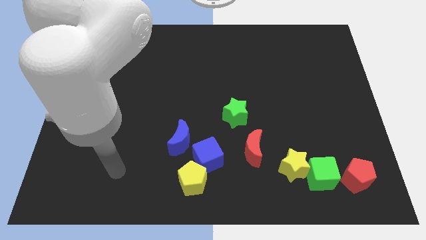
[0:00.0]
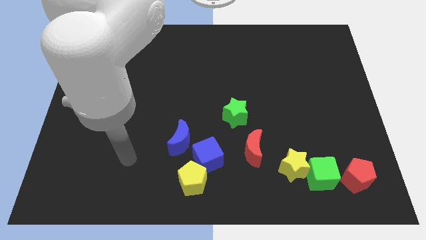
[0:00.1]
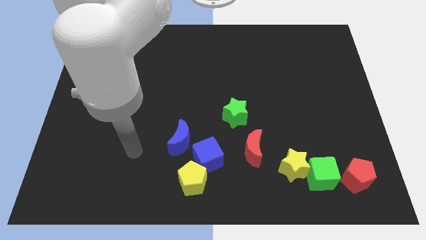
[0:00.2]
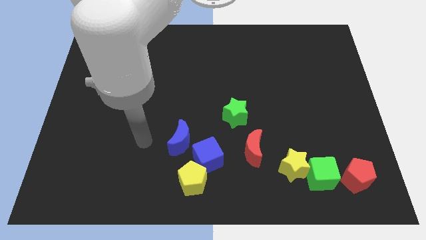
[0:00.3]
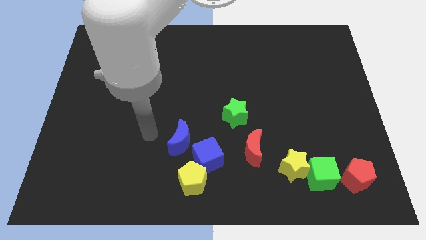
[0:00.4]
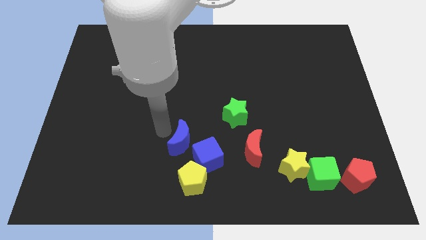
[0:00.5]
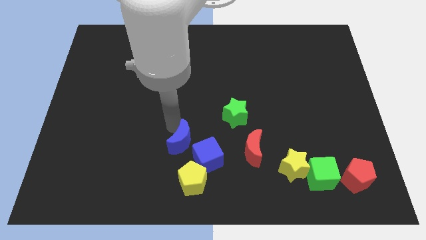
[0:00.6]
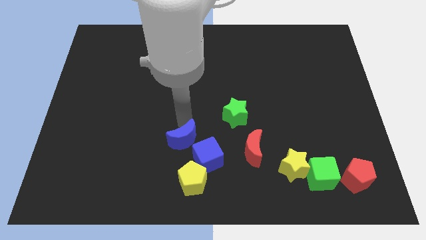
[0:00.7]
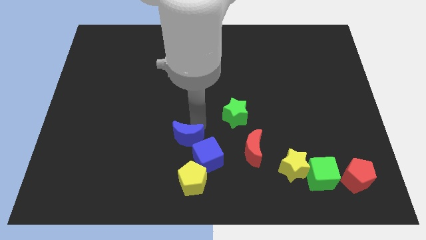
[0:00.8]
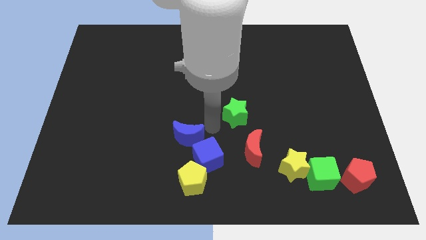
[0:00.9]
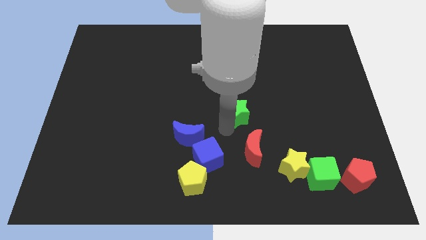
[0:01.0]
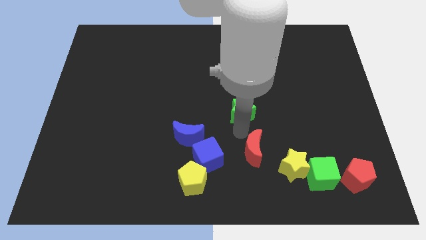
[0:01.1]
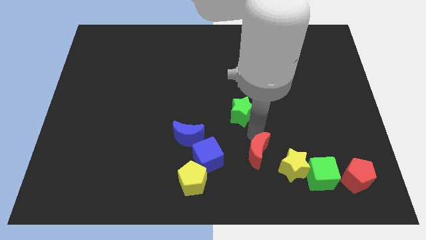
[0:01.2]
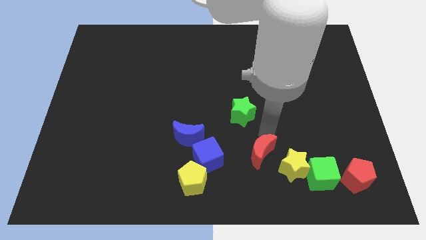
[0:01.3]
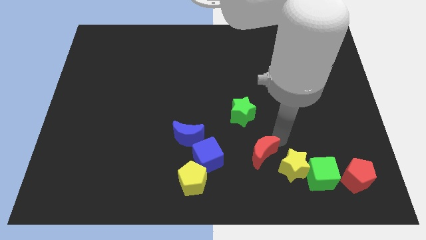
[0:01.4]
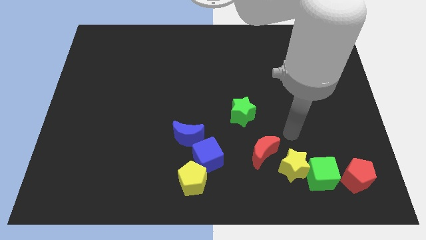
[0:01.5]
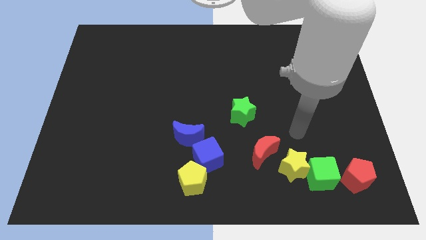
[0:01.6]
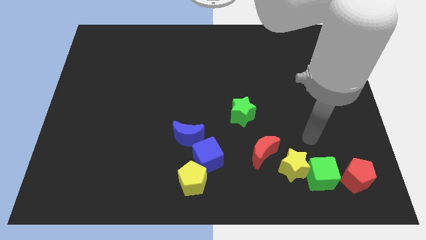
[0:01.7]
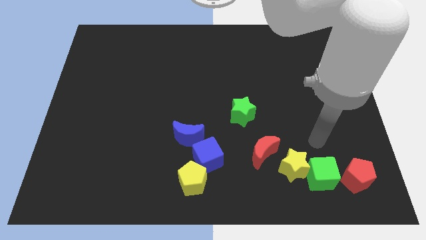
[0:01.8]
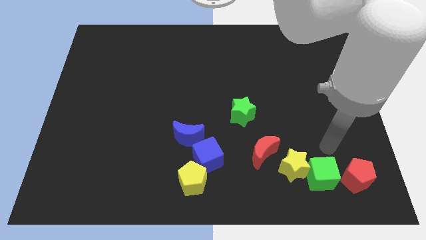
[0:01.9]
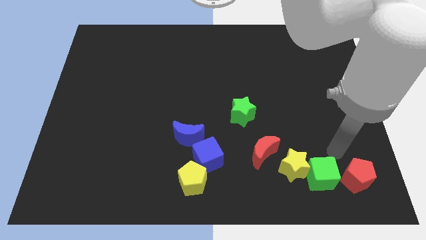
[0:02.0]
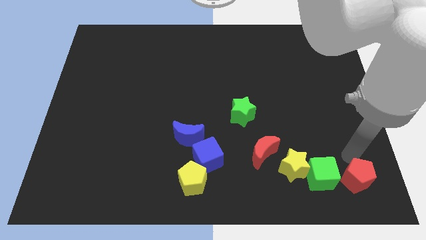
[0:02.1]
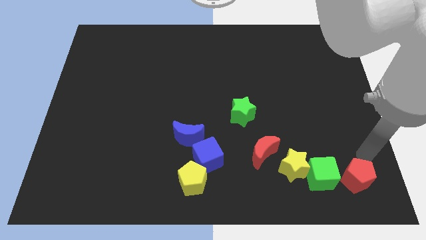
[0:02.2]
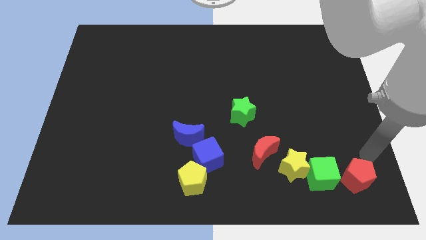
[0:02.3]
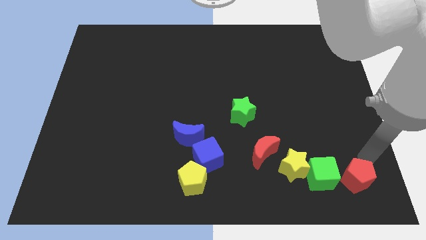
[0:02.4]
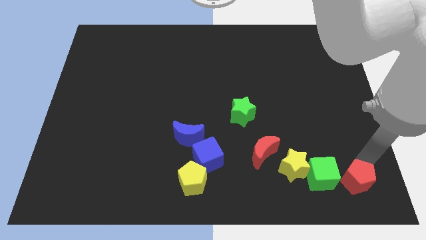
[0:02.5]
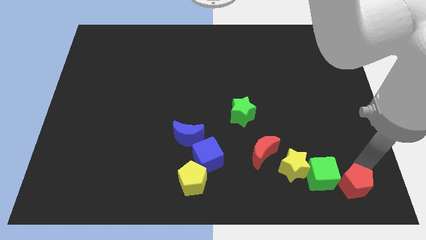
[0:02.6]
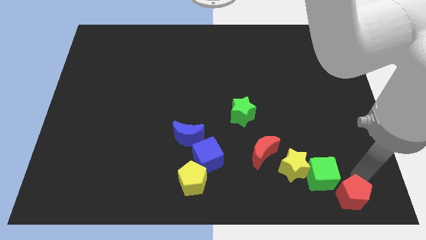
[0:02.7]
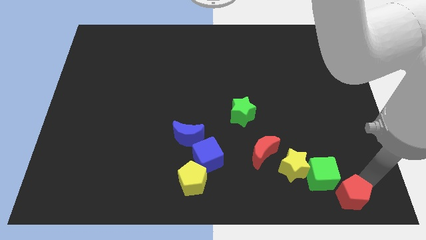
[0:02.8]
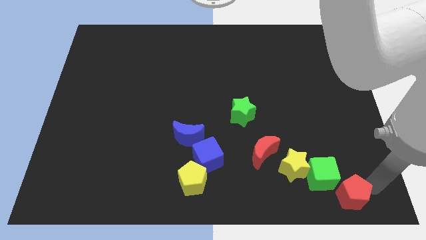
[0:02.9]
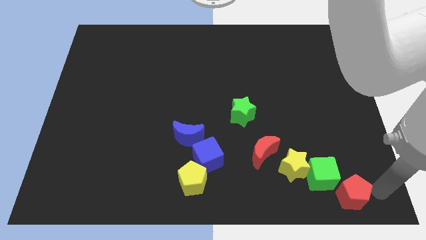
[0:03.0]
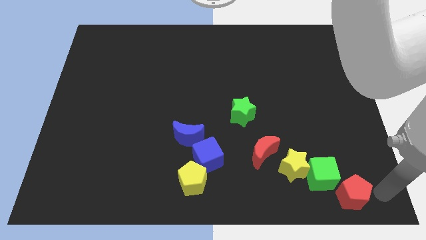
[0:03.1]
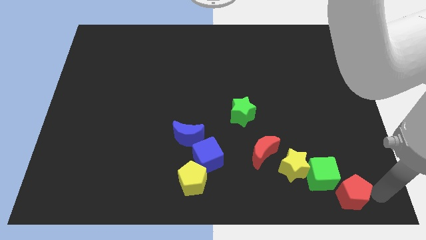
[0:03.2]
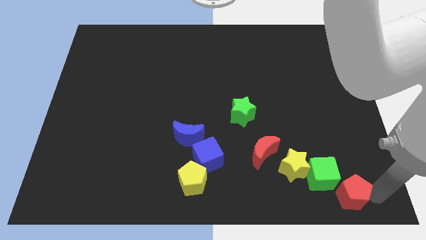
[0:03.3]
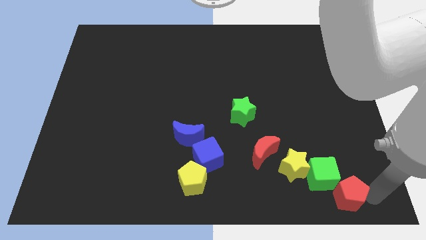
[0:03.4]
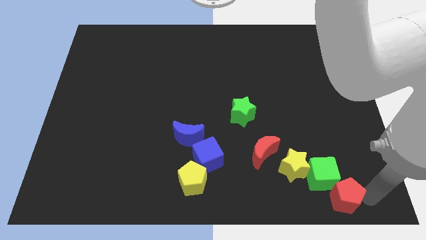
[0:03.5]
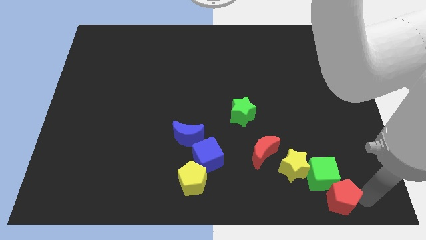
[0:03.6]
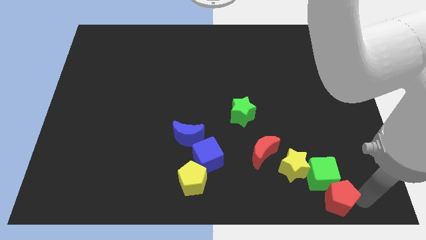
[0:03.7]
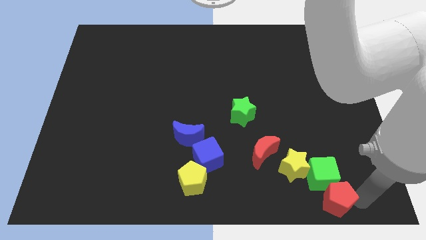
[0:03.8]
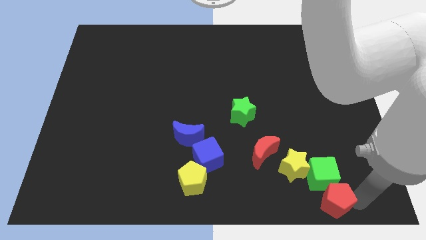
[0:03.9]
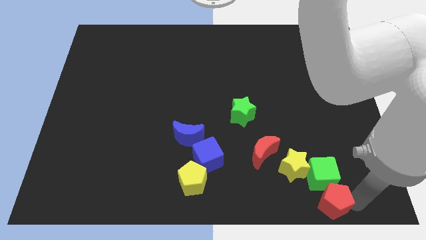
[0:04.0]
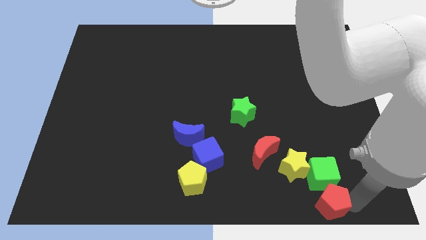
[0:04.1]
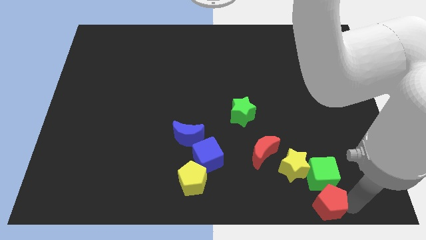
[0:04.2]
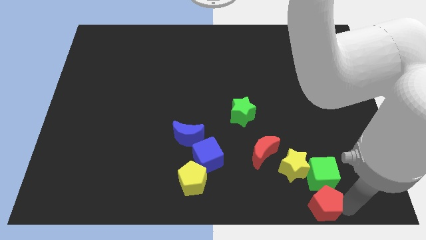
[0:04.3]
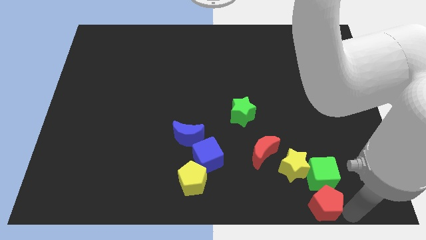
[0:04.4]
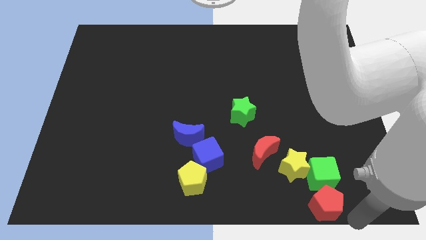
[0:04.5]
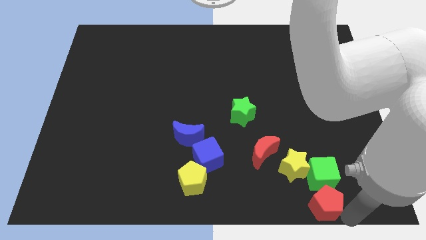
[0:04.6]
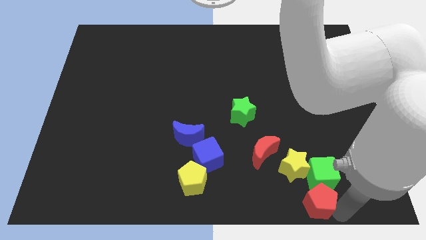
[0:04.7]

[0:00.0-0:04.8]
slide the red pentagon left somewhat

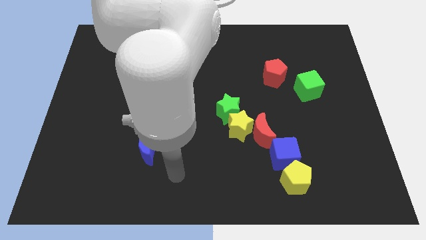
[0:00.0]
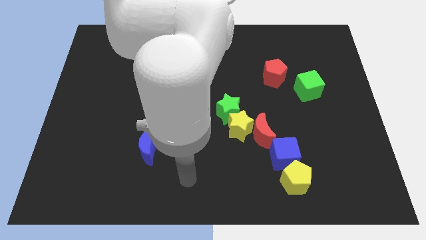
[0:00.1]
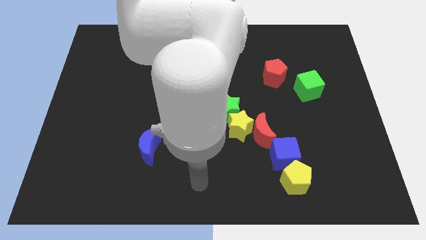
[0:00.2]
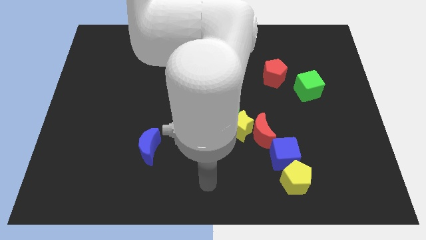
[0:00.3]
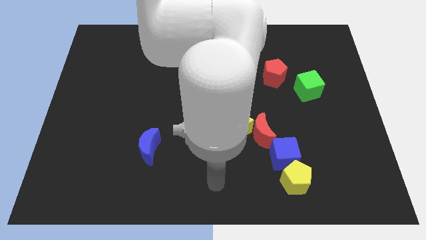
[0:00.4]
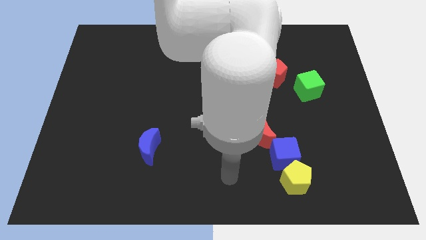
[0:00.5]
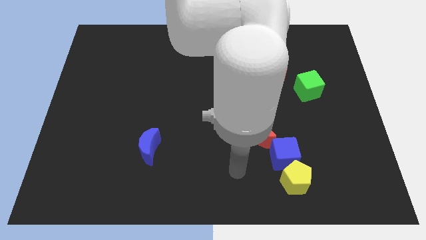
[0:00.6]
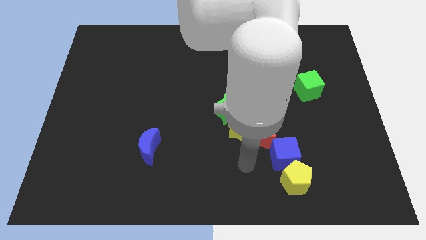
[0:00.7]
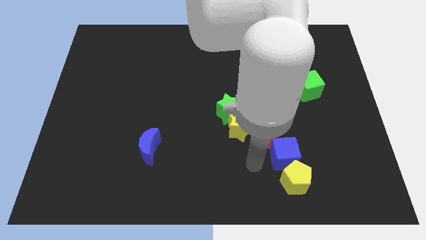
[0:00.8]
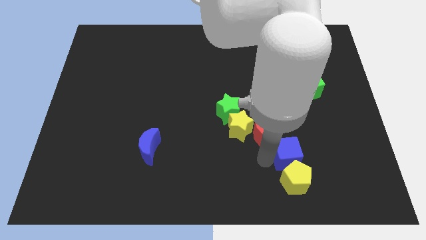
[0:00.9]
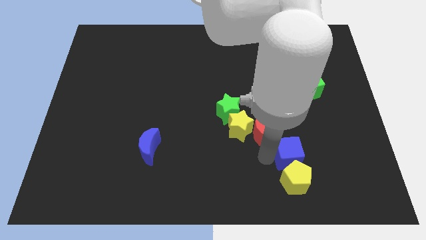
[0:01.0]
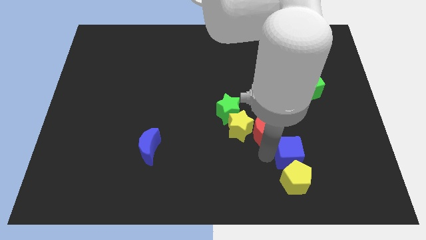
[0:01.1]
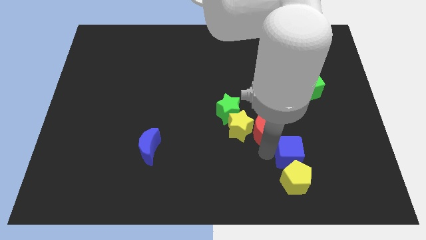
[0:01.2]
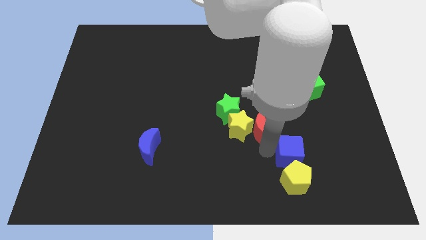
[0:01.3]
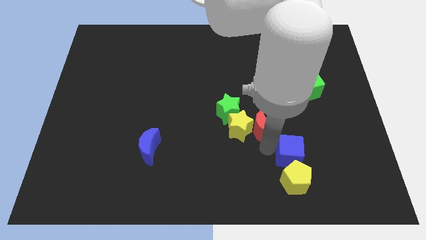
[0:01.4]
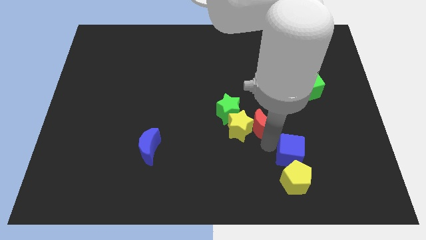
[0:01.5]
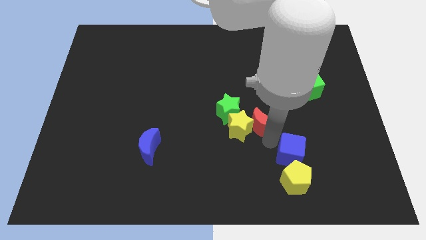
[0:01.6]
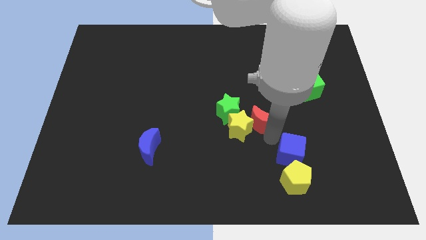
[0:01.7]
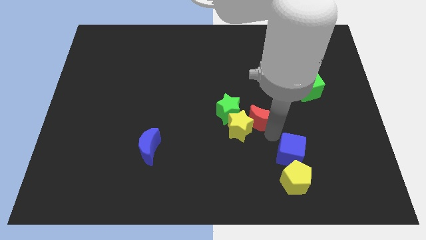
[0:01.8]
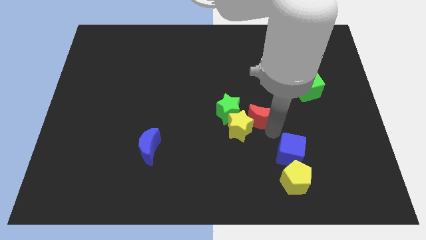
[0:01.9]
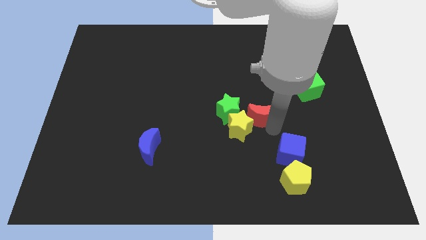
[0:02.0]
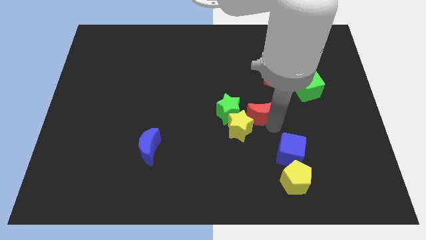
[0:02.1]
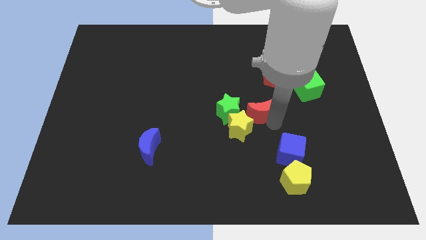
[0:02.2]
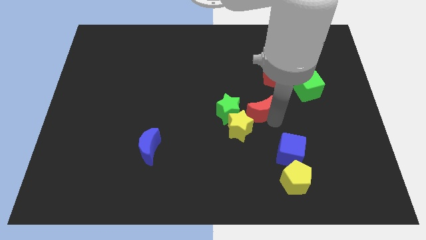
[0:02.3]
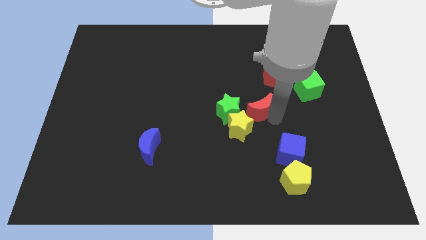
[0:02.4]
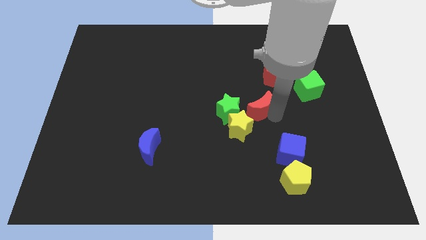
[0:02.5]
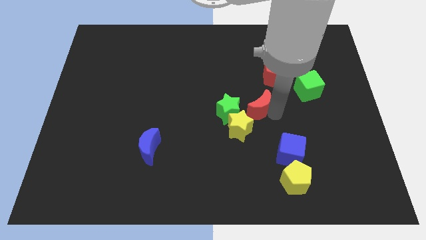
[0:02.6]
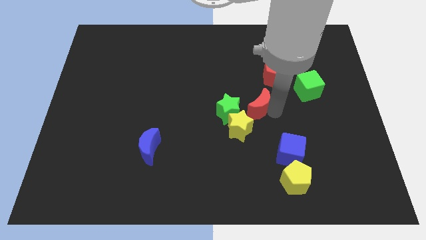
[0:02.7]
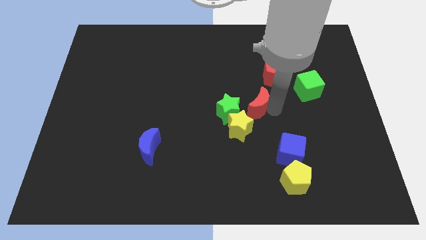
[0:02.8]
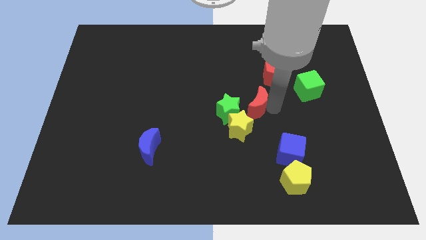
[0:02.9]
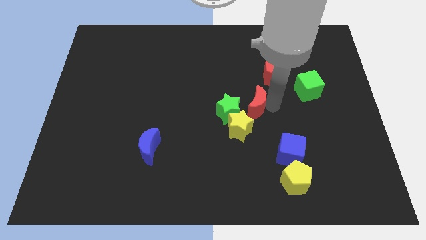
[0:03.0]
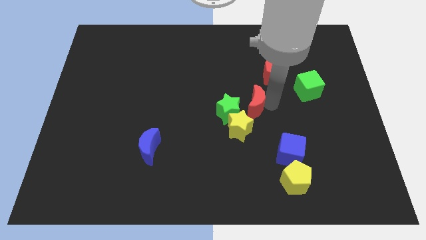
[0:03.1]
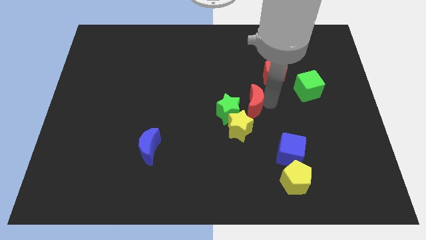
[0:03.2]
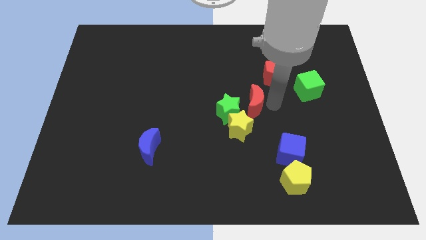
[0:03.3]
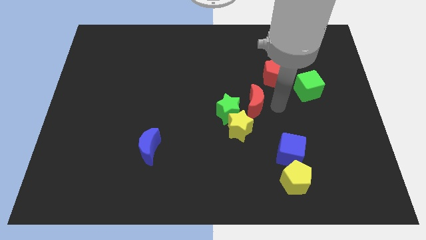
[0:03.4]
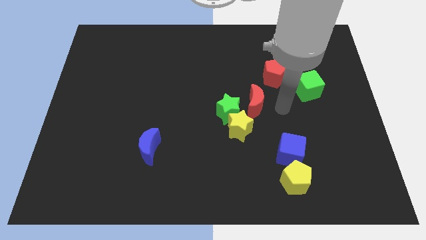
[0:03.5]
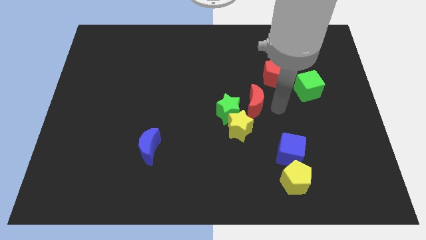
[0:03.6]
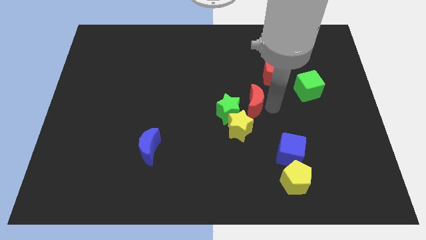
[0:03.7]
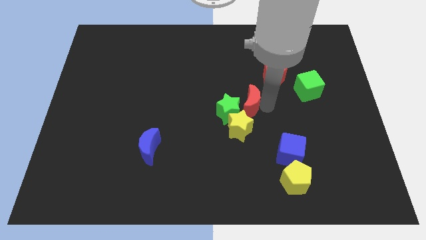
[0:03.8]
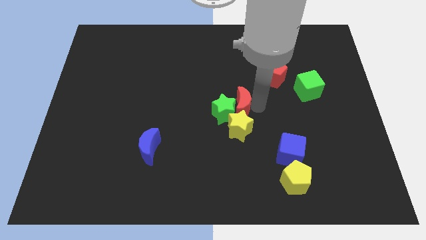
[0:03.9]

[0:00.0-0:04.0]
slightly slide the red moon upwards and then to the left
